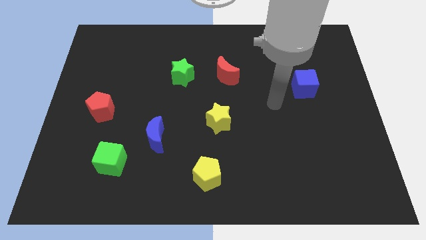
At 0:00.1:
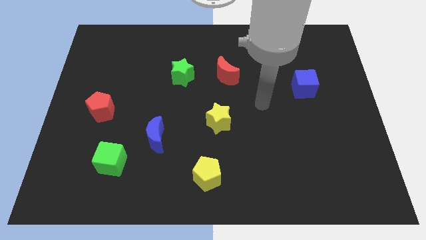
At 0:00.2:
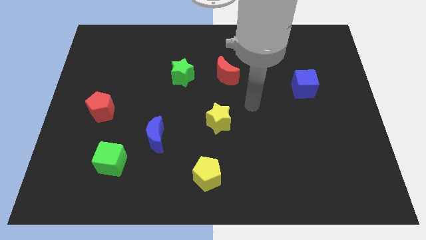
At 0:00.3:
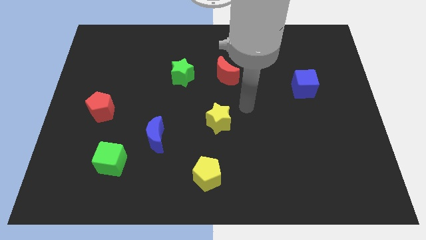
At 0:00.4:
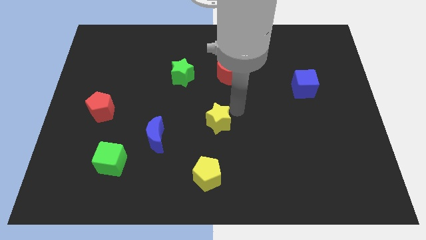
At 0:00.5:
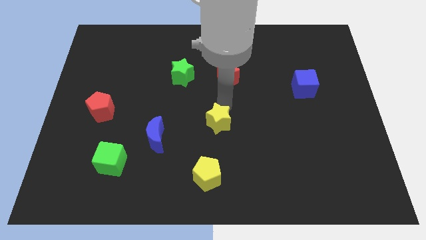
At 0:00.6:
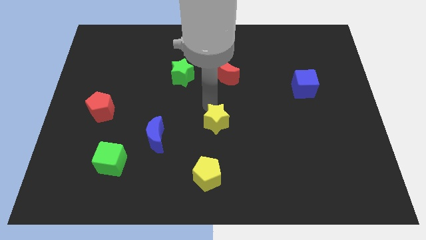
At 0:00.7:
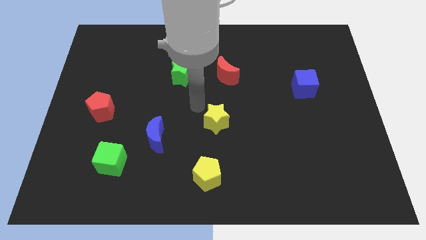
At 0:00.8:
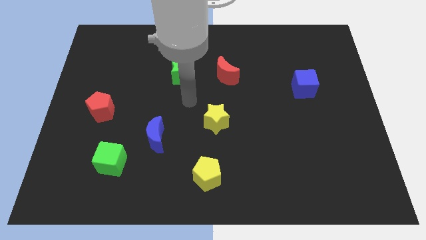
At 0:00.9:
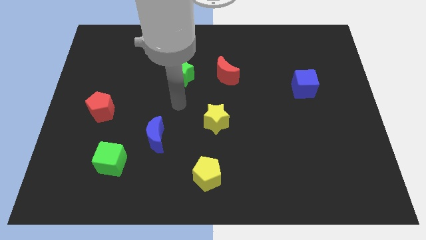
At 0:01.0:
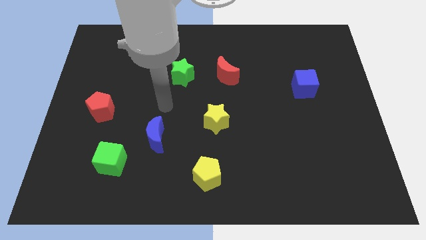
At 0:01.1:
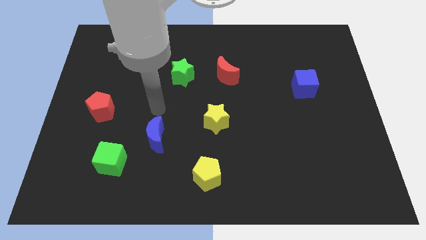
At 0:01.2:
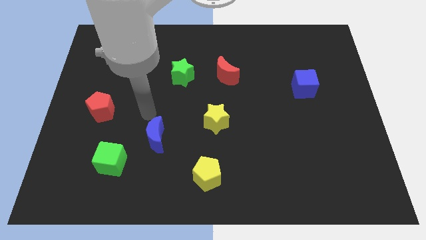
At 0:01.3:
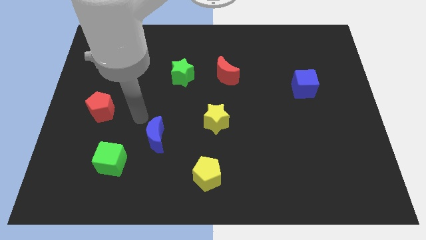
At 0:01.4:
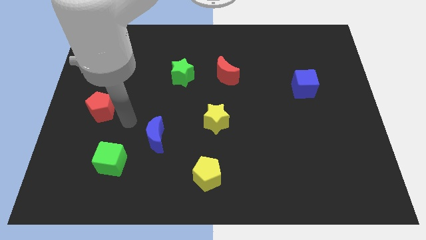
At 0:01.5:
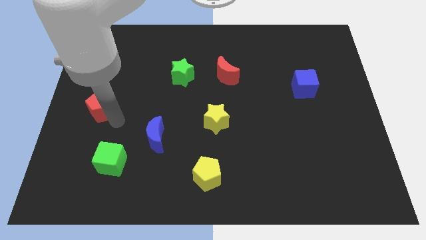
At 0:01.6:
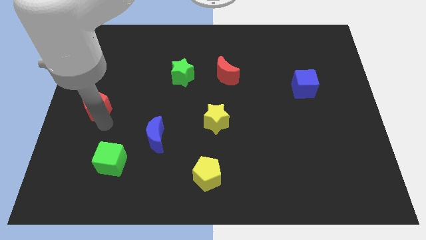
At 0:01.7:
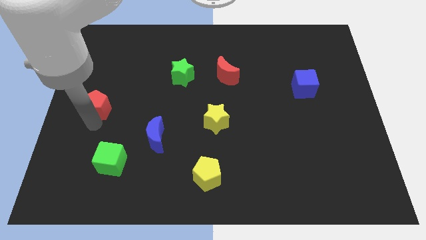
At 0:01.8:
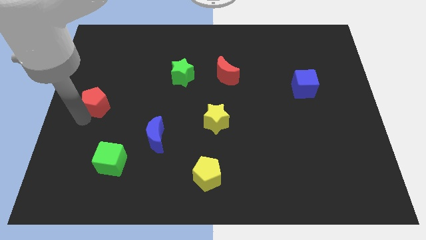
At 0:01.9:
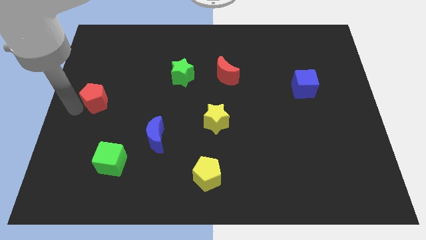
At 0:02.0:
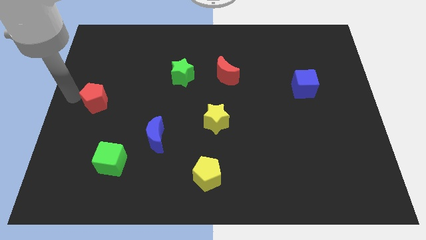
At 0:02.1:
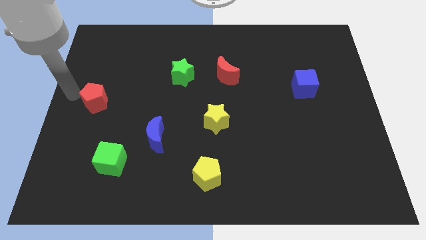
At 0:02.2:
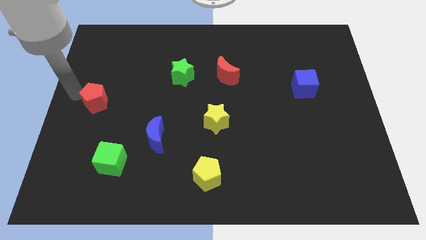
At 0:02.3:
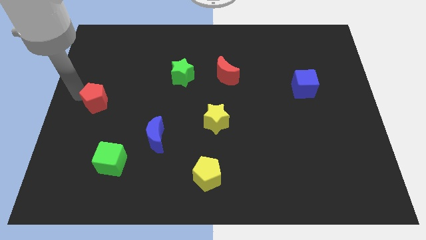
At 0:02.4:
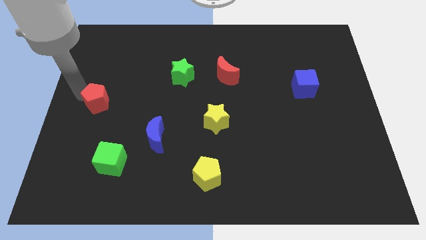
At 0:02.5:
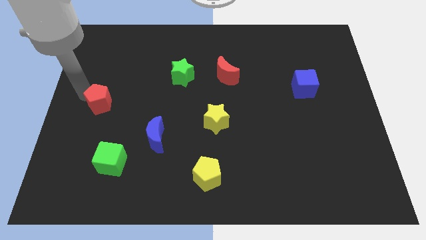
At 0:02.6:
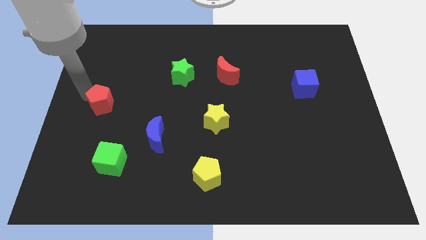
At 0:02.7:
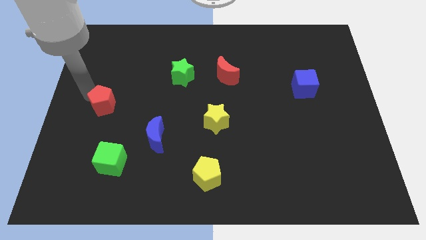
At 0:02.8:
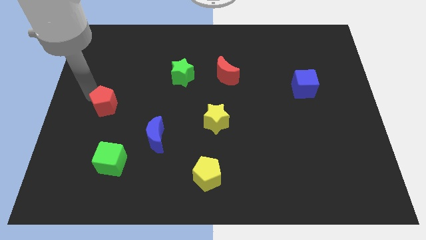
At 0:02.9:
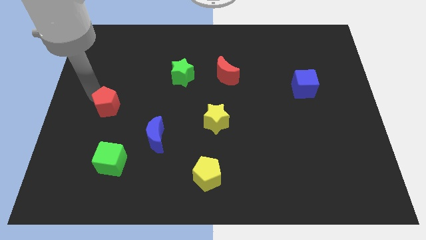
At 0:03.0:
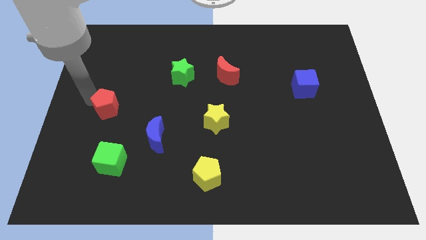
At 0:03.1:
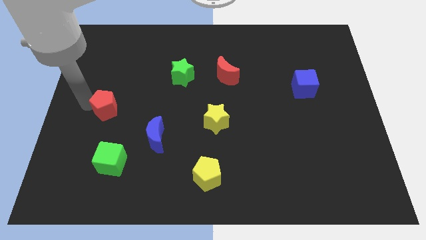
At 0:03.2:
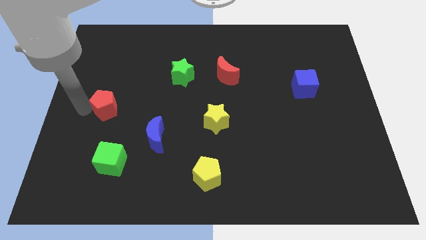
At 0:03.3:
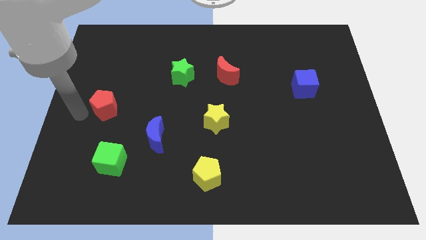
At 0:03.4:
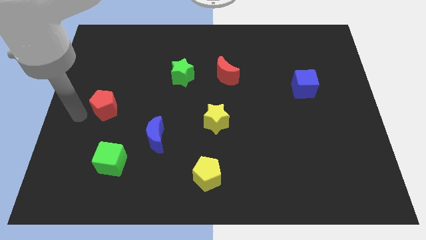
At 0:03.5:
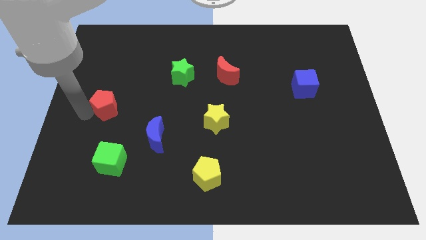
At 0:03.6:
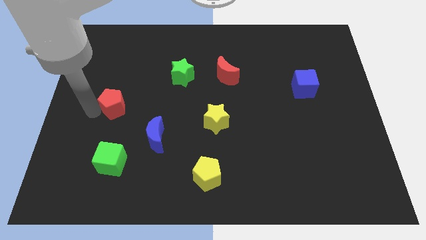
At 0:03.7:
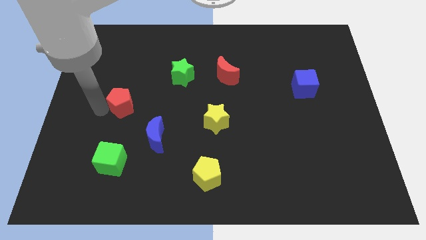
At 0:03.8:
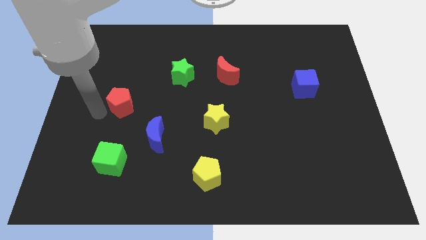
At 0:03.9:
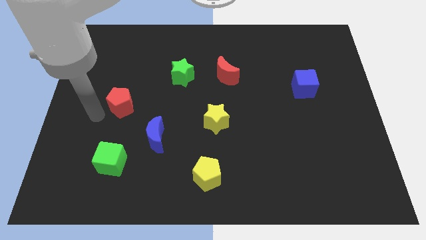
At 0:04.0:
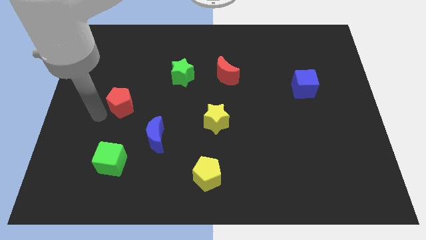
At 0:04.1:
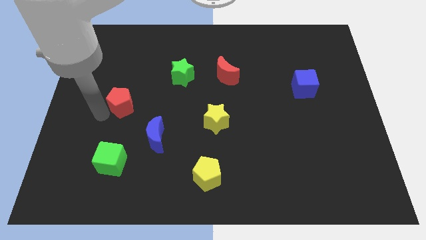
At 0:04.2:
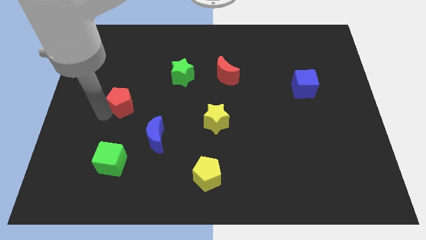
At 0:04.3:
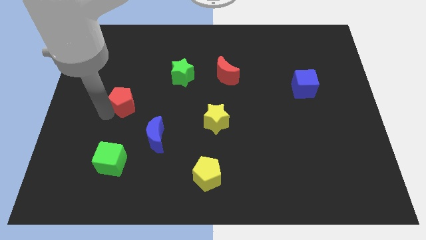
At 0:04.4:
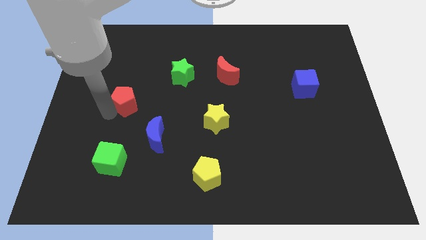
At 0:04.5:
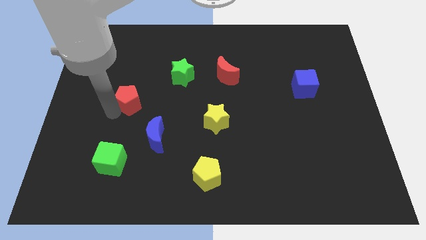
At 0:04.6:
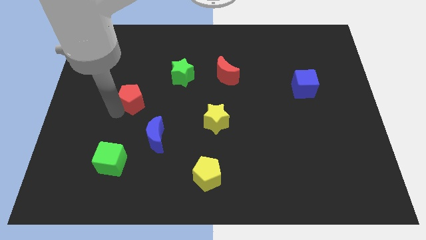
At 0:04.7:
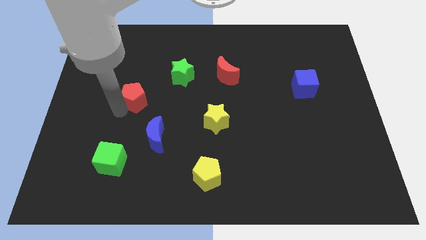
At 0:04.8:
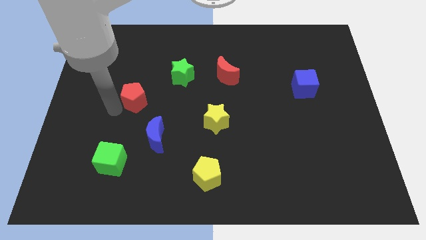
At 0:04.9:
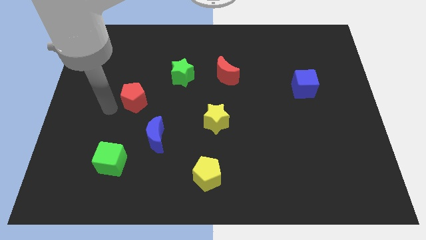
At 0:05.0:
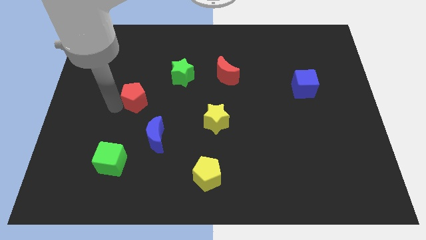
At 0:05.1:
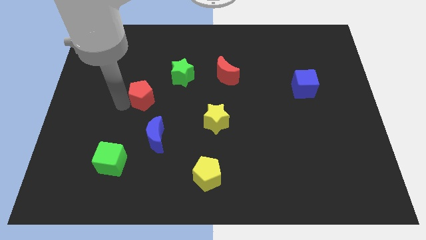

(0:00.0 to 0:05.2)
slide the red pentagon to the bottom left of the green star

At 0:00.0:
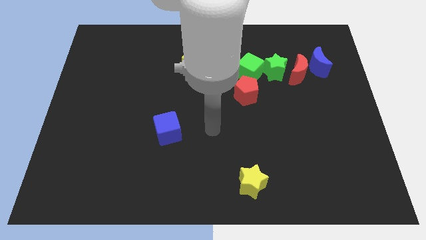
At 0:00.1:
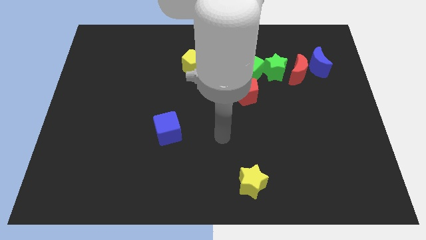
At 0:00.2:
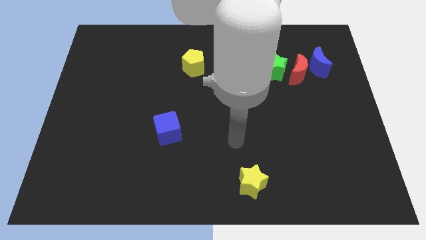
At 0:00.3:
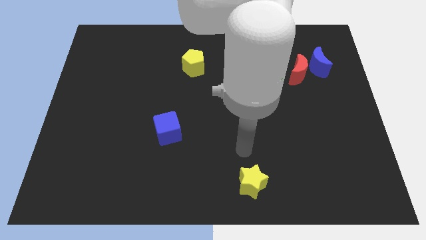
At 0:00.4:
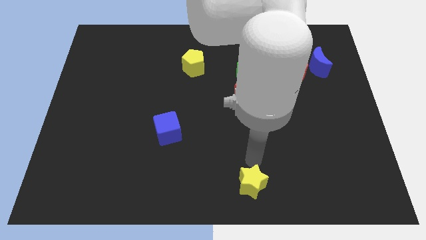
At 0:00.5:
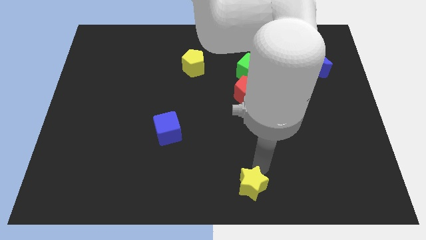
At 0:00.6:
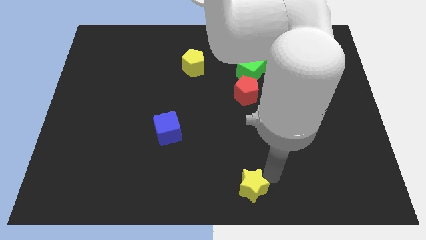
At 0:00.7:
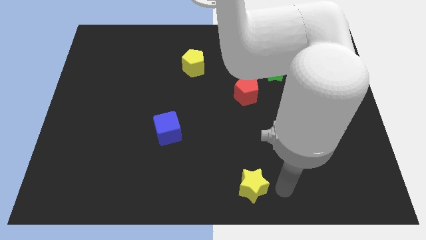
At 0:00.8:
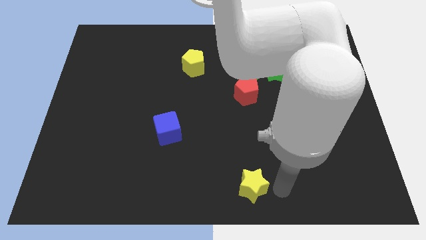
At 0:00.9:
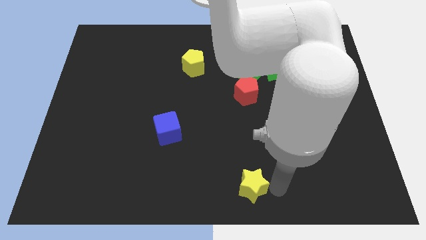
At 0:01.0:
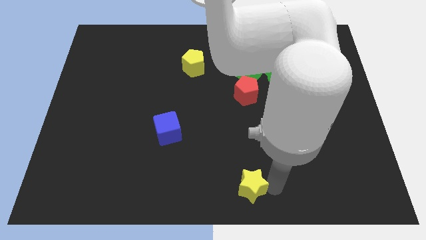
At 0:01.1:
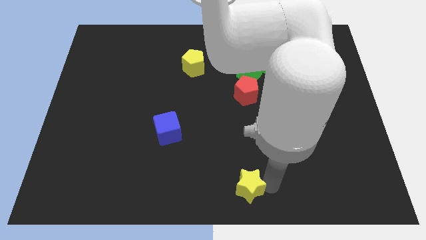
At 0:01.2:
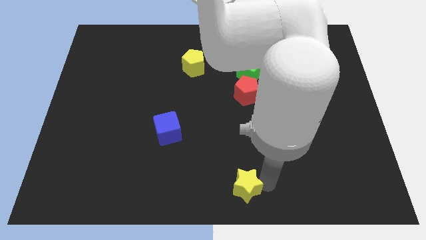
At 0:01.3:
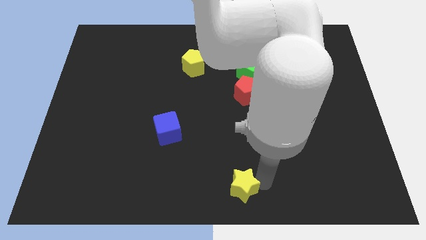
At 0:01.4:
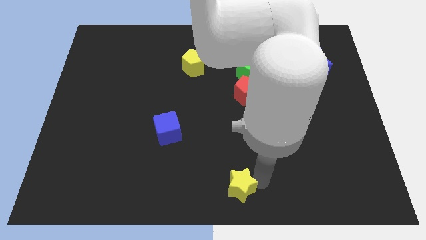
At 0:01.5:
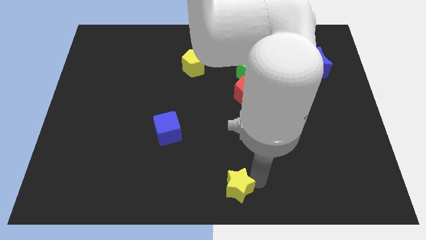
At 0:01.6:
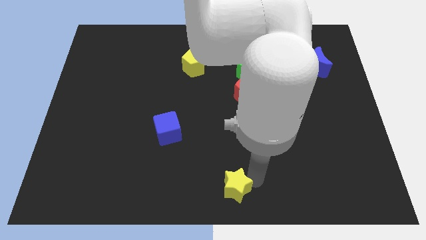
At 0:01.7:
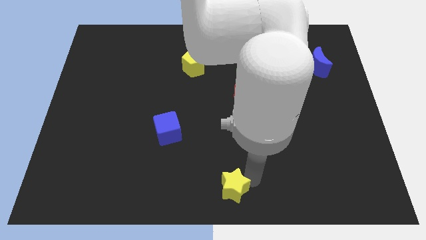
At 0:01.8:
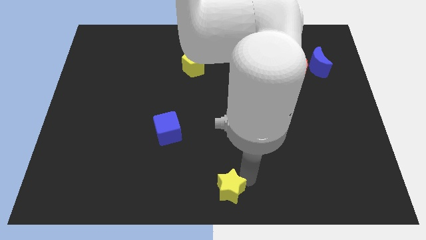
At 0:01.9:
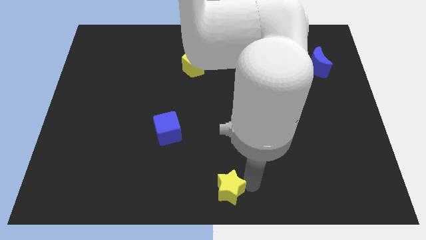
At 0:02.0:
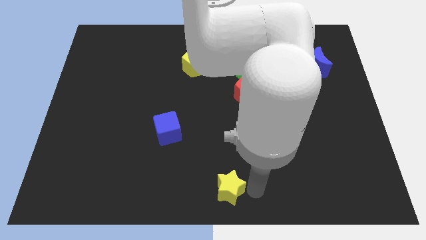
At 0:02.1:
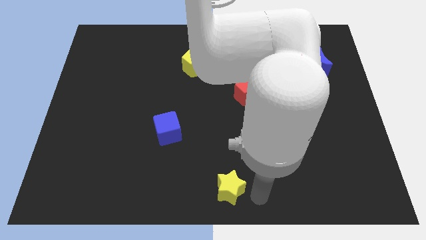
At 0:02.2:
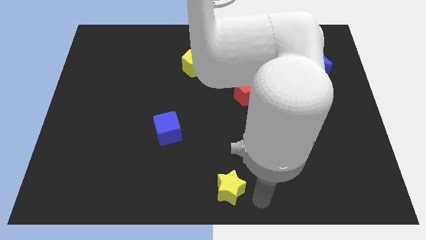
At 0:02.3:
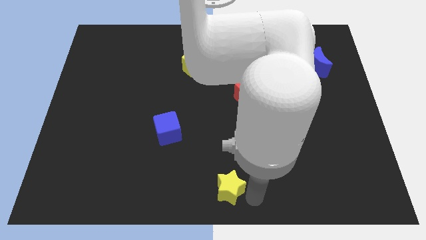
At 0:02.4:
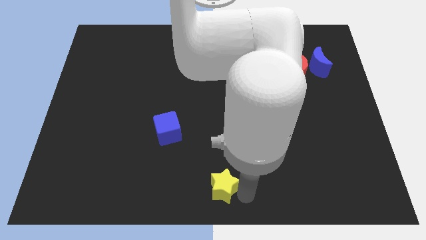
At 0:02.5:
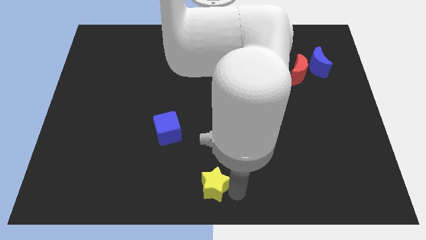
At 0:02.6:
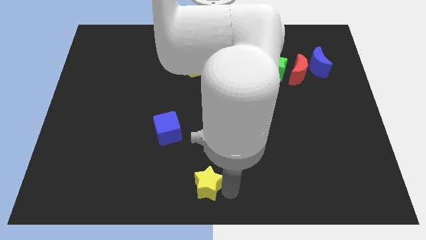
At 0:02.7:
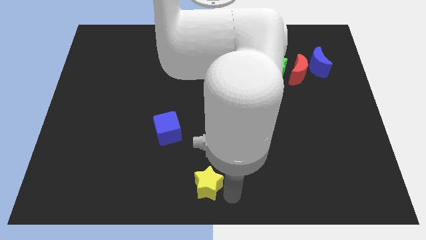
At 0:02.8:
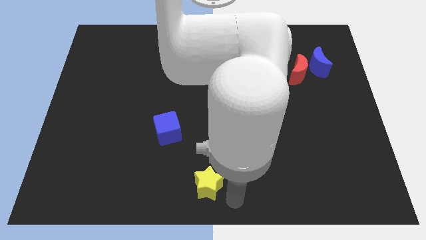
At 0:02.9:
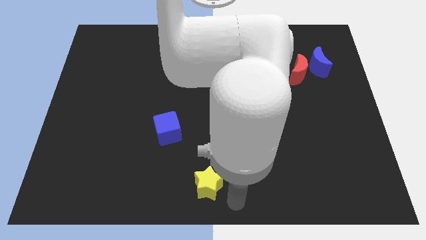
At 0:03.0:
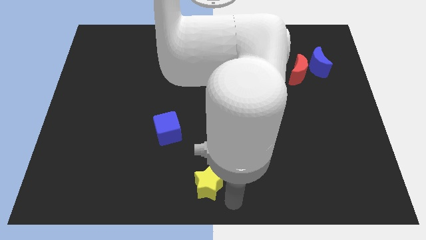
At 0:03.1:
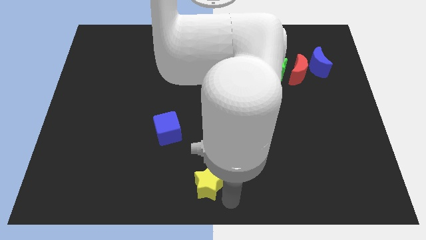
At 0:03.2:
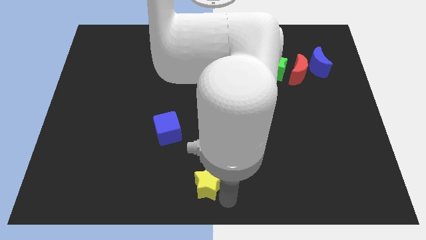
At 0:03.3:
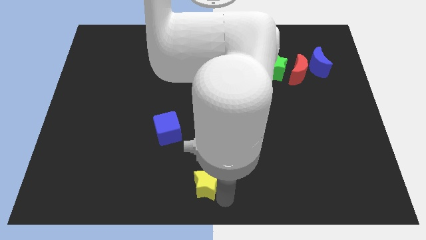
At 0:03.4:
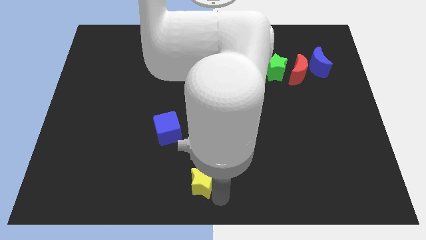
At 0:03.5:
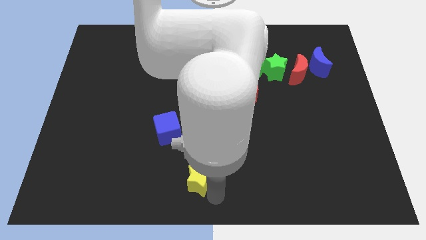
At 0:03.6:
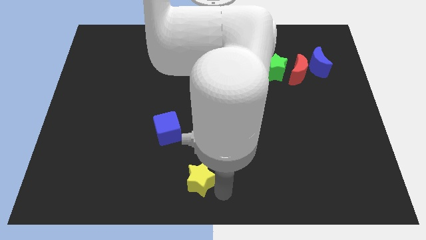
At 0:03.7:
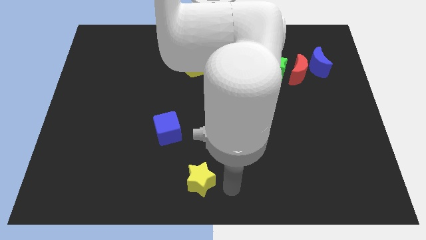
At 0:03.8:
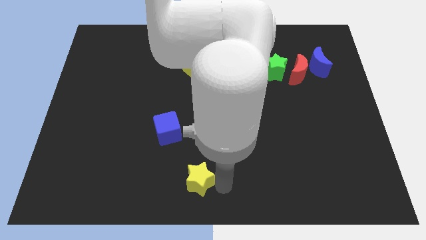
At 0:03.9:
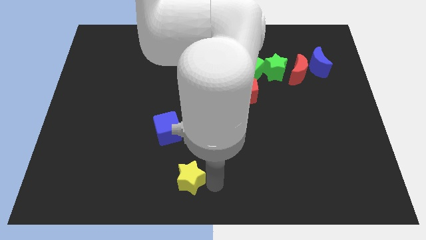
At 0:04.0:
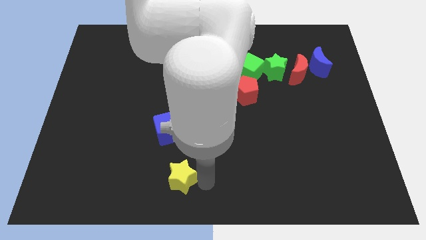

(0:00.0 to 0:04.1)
slide the yellow star below the blue cube
